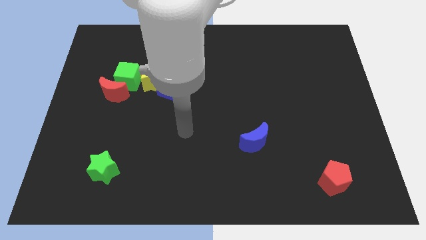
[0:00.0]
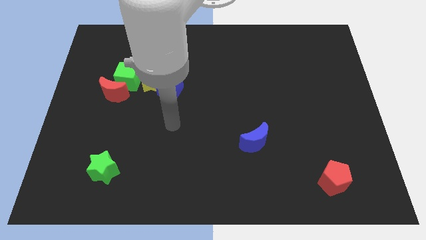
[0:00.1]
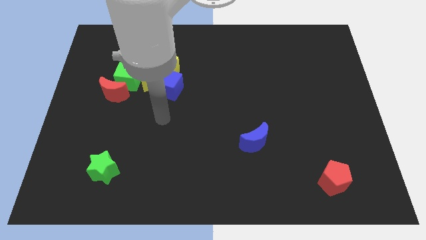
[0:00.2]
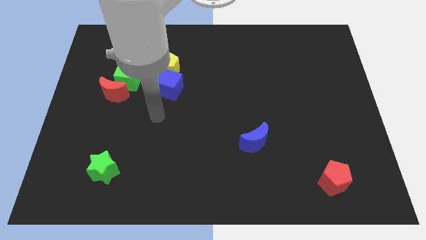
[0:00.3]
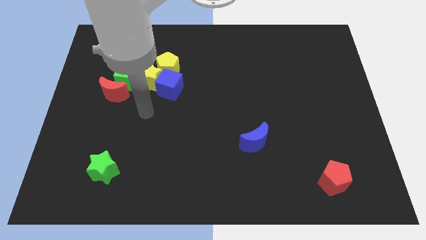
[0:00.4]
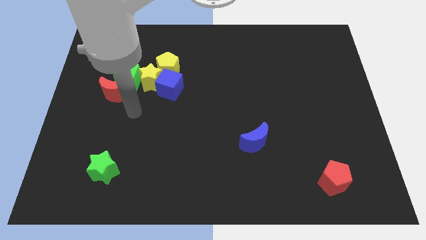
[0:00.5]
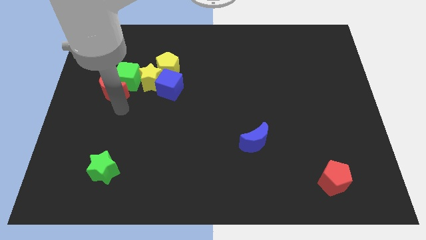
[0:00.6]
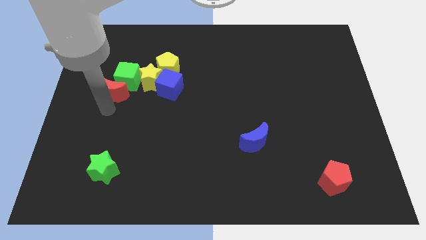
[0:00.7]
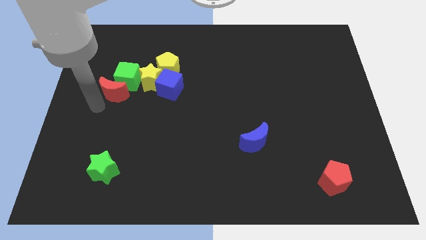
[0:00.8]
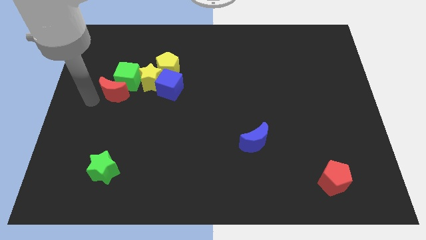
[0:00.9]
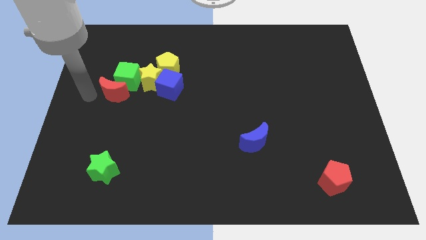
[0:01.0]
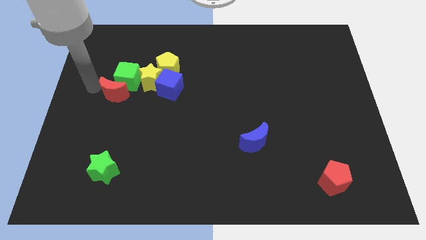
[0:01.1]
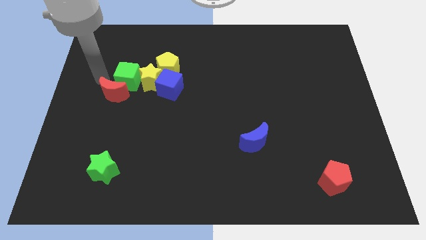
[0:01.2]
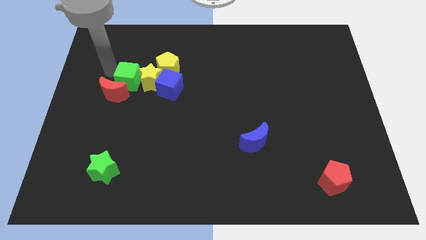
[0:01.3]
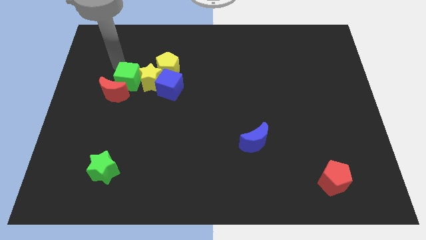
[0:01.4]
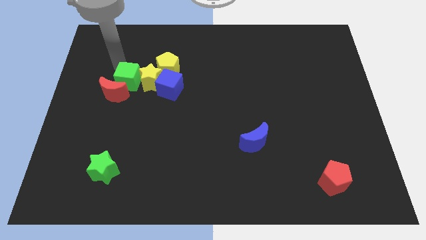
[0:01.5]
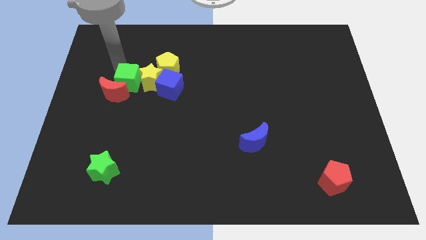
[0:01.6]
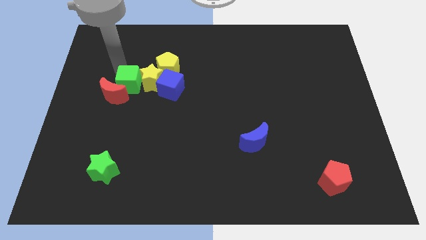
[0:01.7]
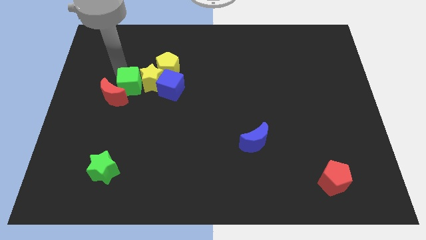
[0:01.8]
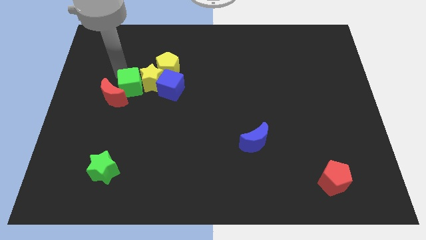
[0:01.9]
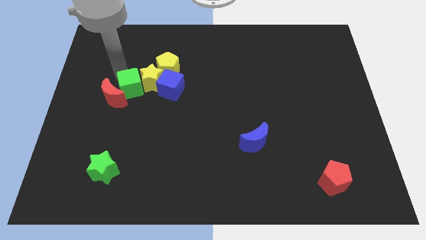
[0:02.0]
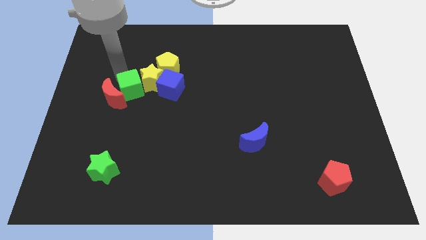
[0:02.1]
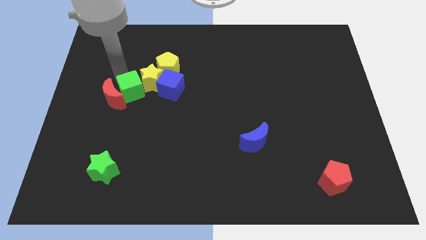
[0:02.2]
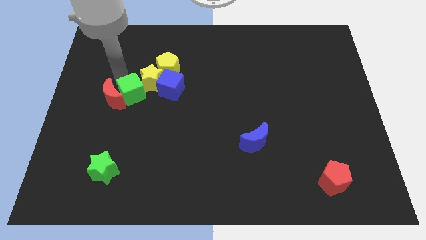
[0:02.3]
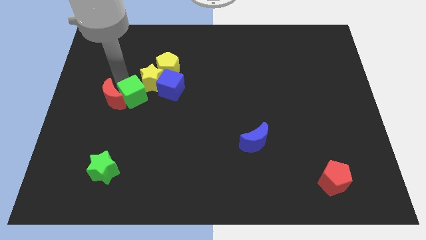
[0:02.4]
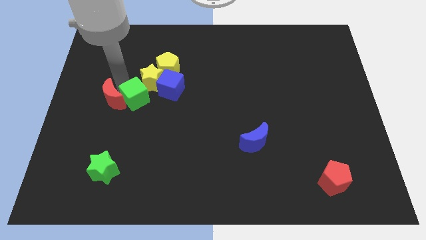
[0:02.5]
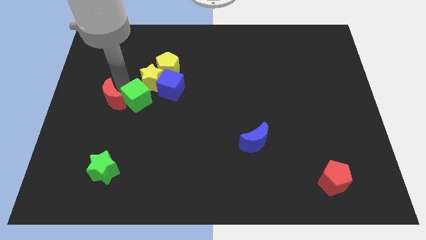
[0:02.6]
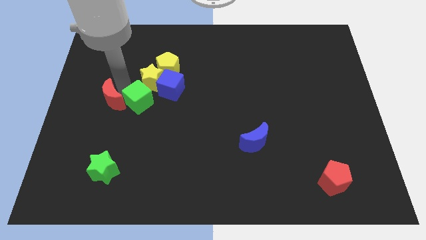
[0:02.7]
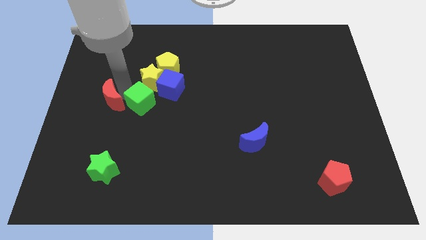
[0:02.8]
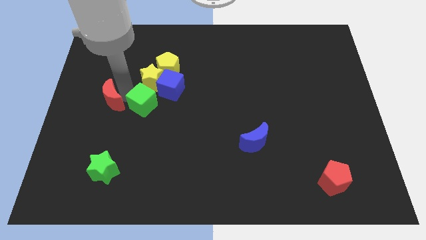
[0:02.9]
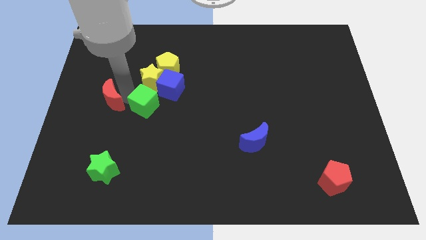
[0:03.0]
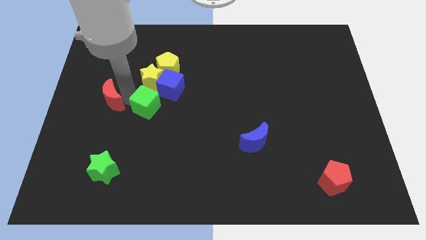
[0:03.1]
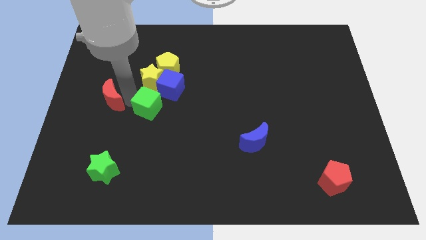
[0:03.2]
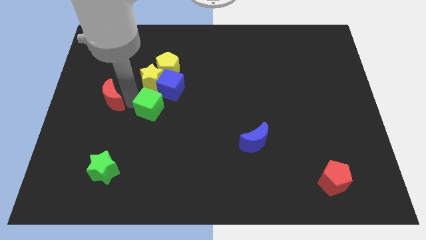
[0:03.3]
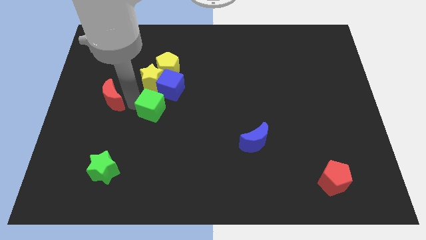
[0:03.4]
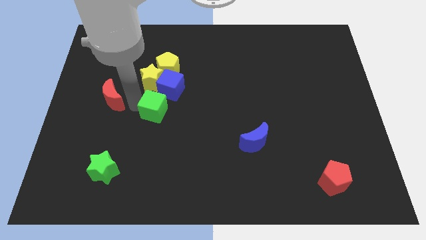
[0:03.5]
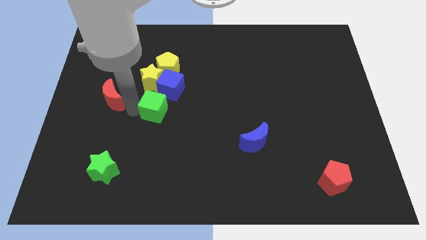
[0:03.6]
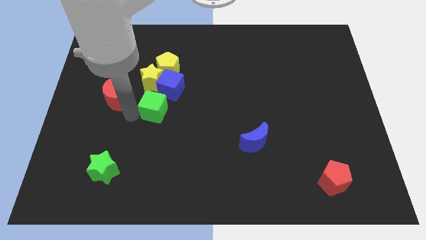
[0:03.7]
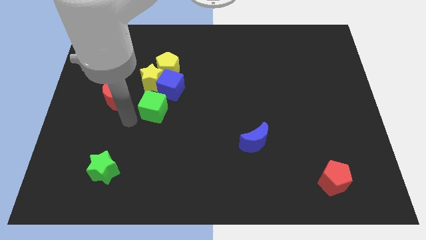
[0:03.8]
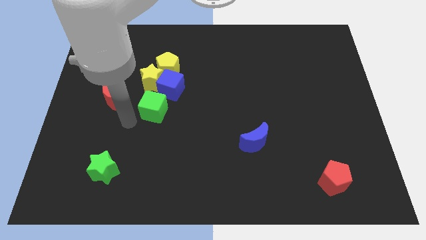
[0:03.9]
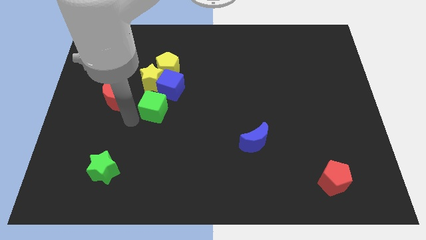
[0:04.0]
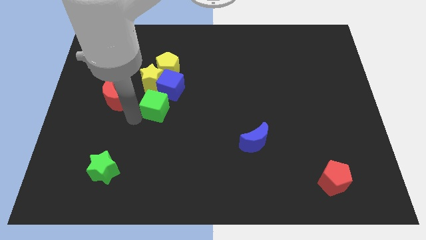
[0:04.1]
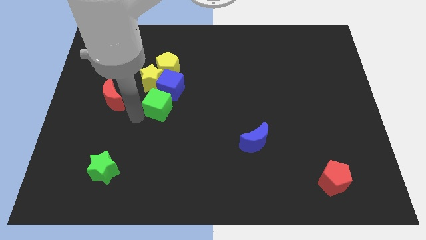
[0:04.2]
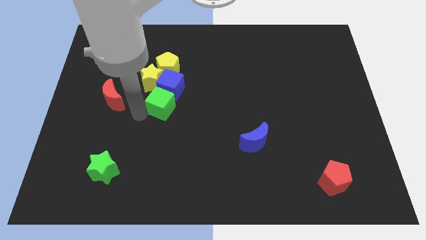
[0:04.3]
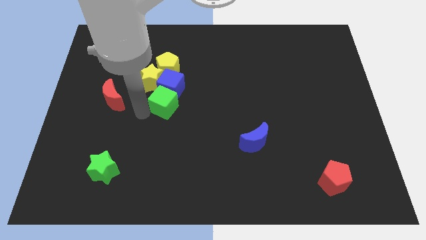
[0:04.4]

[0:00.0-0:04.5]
push the green cube a bit right

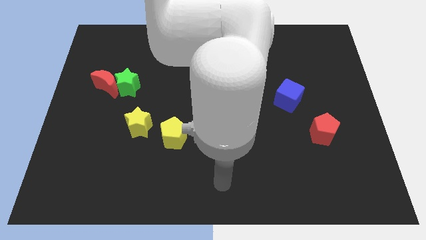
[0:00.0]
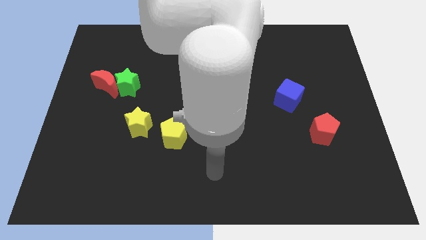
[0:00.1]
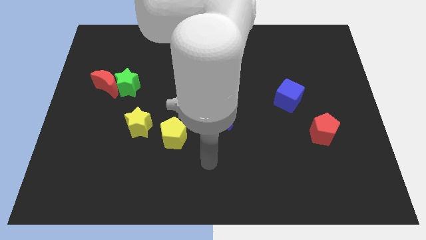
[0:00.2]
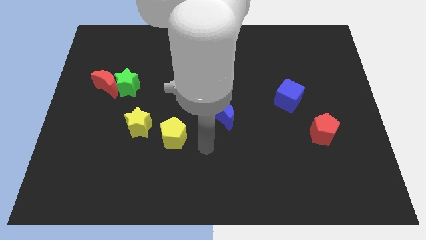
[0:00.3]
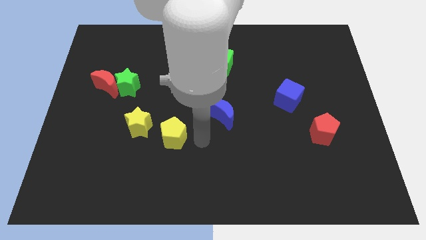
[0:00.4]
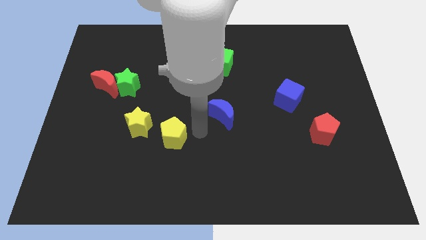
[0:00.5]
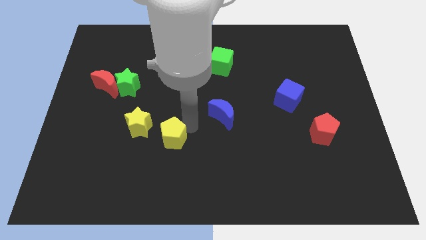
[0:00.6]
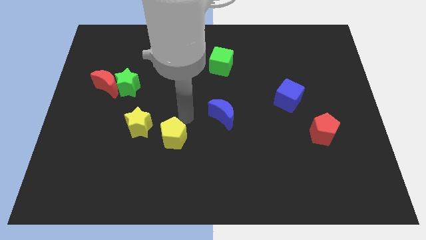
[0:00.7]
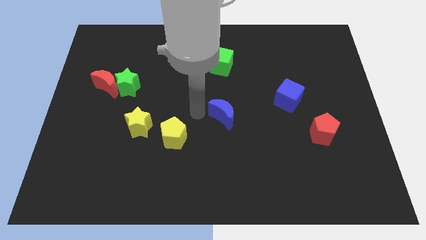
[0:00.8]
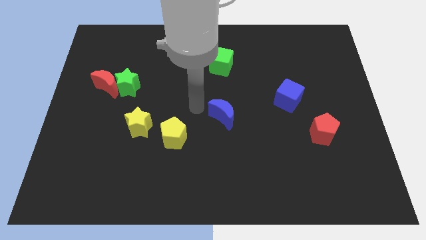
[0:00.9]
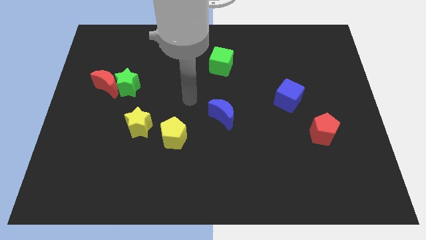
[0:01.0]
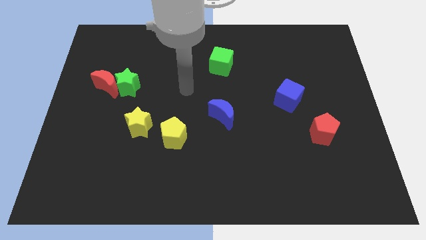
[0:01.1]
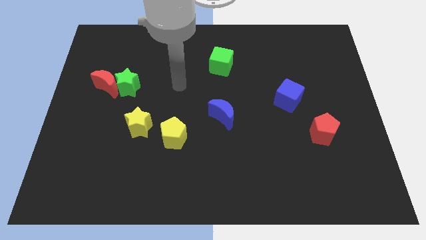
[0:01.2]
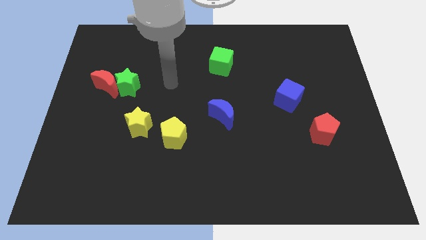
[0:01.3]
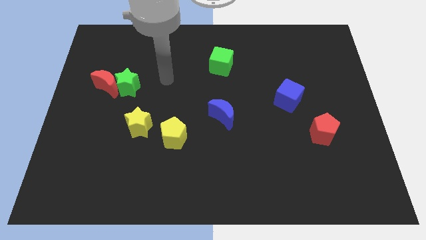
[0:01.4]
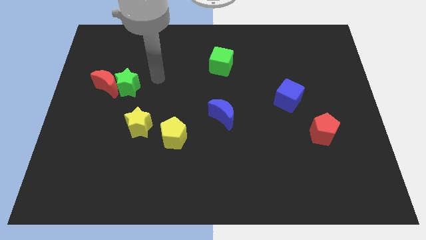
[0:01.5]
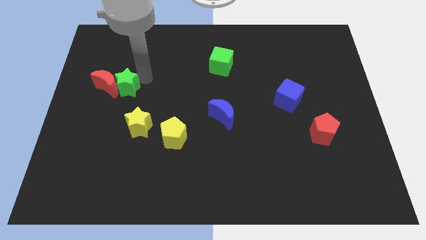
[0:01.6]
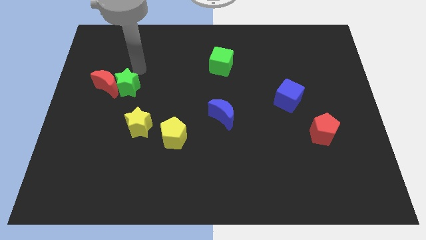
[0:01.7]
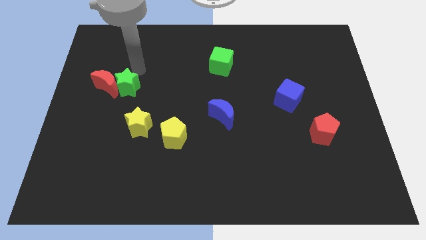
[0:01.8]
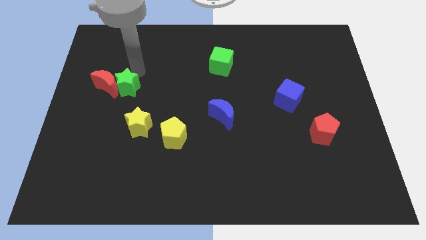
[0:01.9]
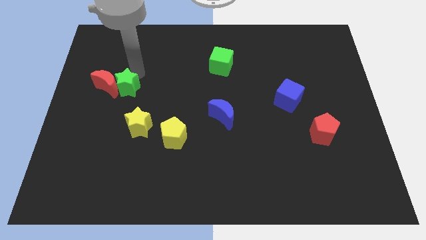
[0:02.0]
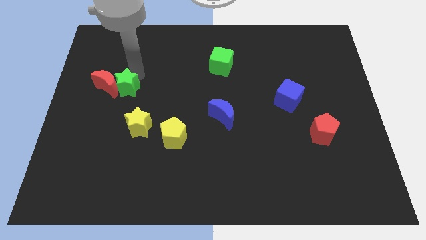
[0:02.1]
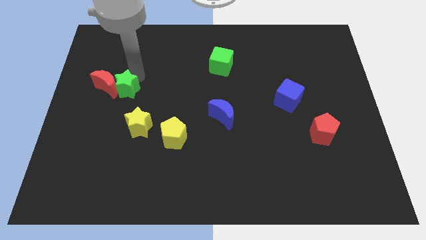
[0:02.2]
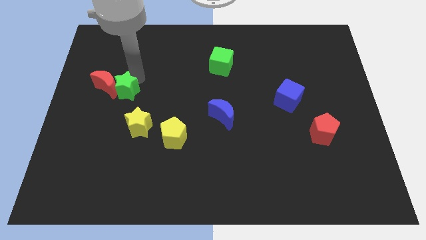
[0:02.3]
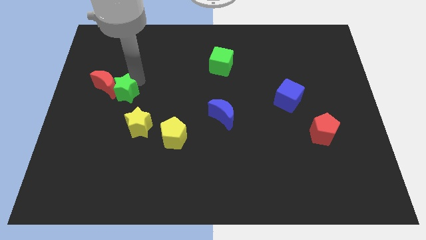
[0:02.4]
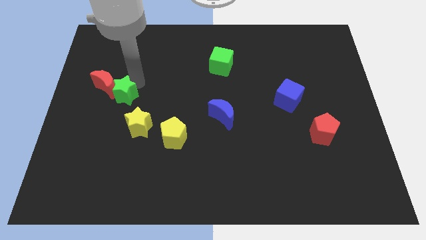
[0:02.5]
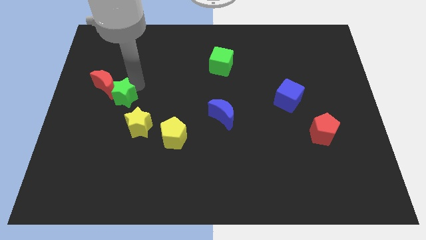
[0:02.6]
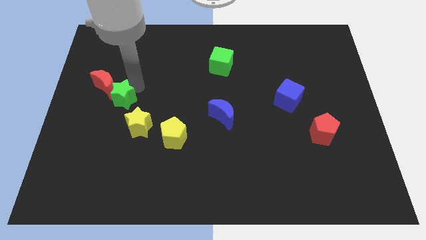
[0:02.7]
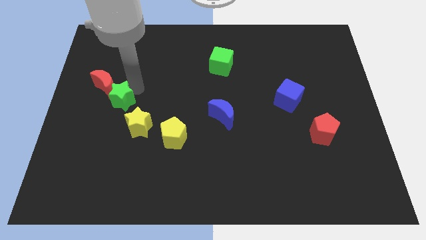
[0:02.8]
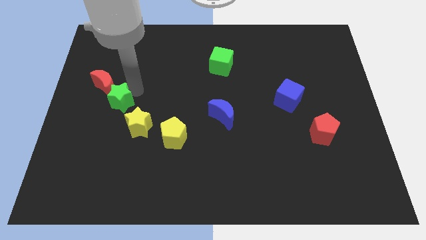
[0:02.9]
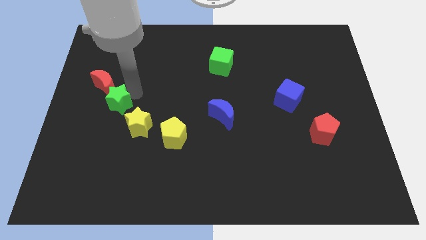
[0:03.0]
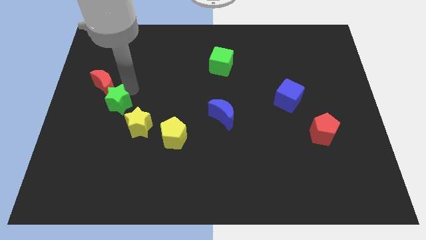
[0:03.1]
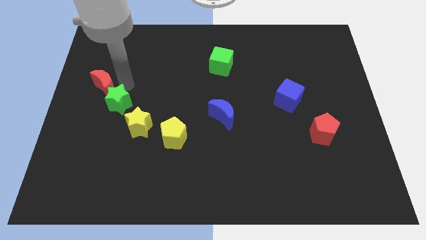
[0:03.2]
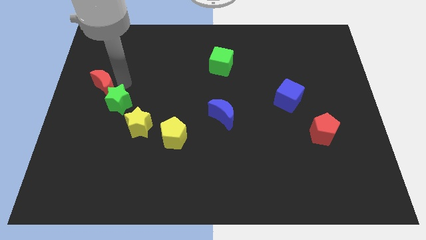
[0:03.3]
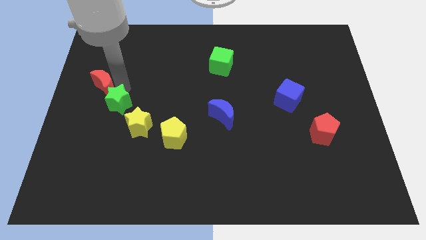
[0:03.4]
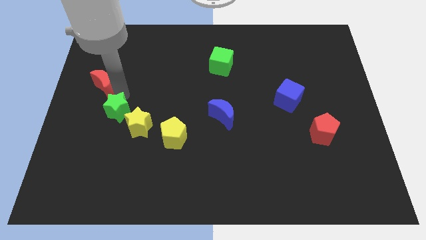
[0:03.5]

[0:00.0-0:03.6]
push the green star slightly down
